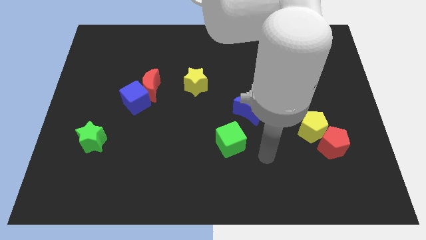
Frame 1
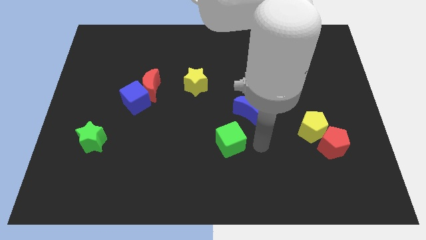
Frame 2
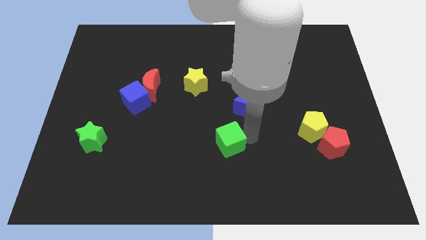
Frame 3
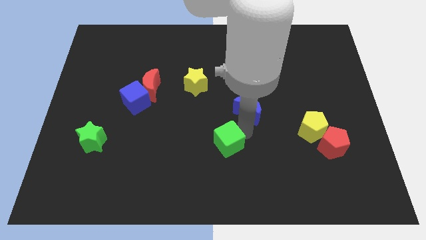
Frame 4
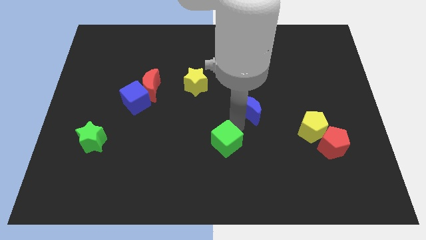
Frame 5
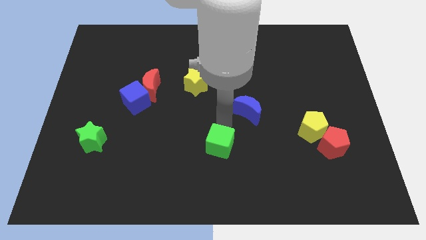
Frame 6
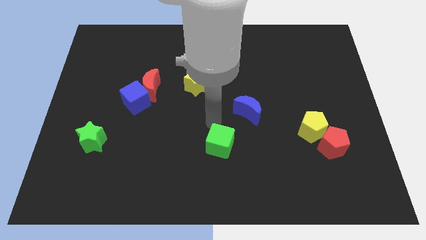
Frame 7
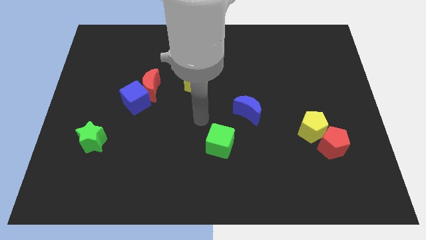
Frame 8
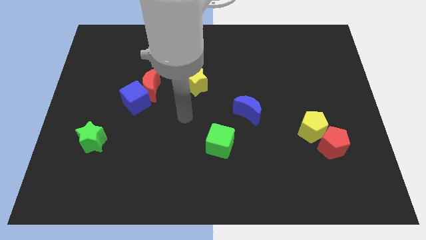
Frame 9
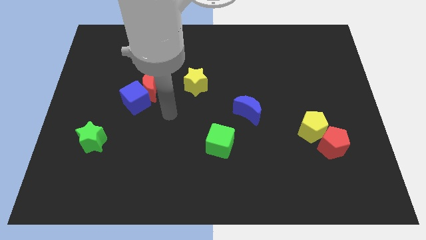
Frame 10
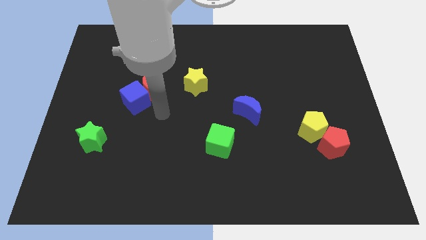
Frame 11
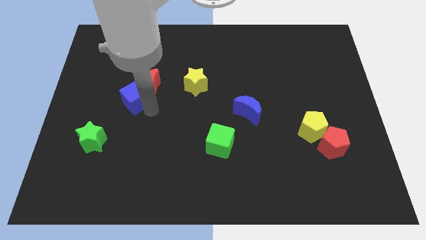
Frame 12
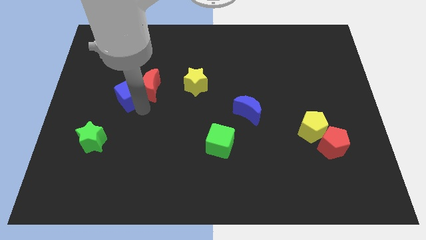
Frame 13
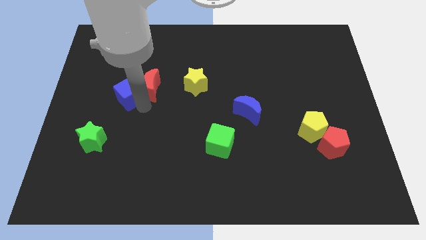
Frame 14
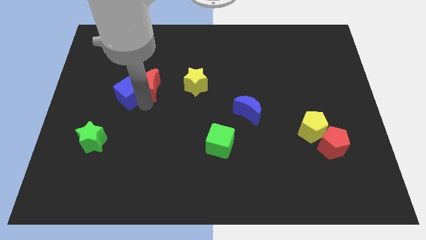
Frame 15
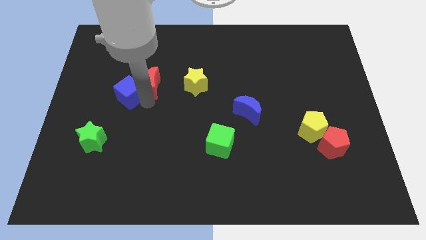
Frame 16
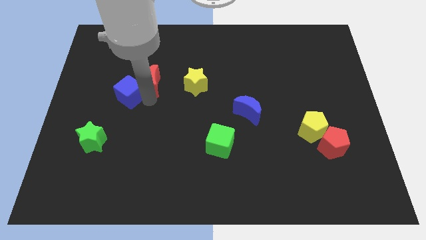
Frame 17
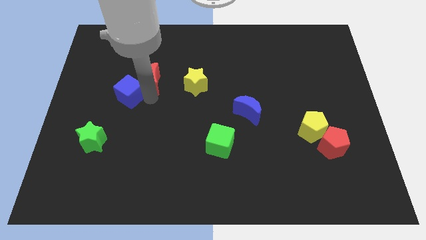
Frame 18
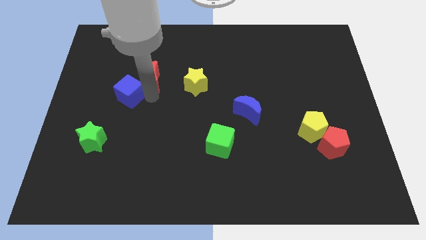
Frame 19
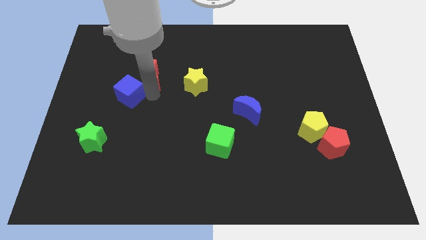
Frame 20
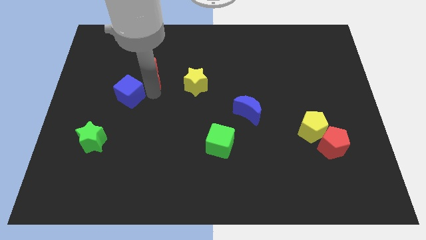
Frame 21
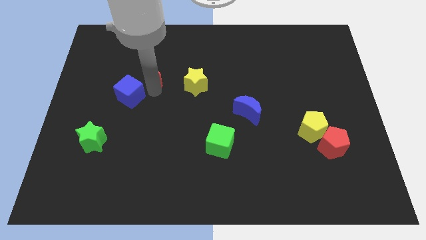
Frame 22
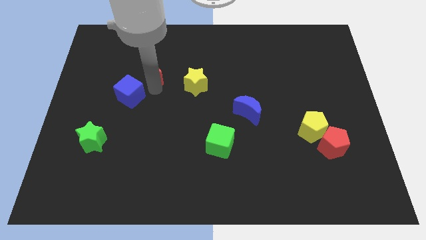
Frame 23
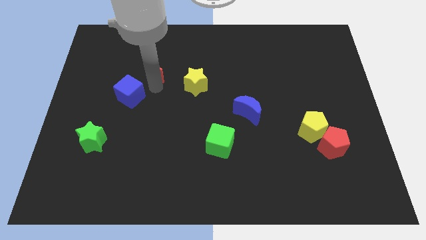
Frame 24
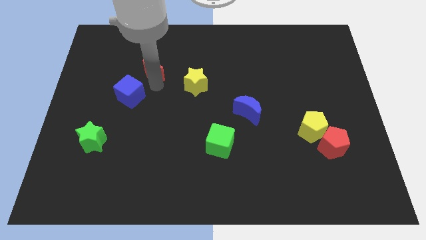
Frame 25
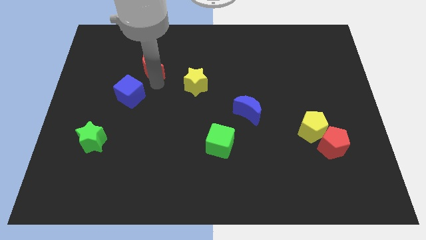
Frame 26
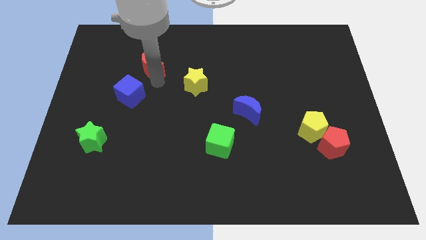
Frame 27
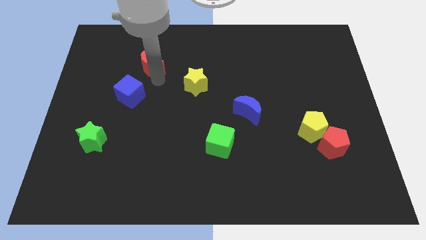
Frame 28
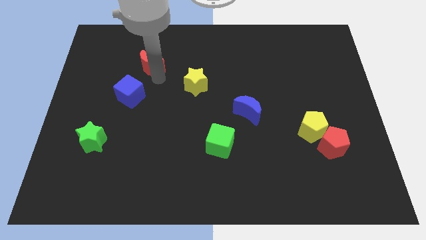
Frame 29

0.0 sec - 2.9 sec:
move the red moon away from the blue cube

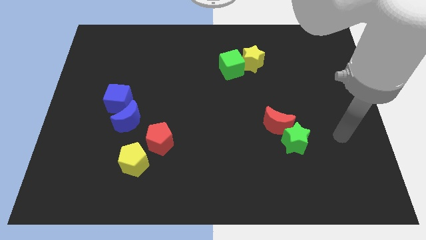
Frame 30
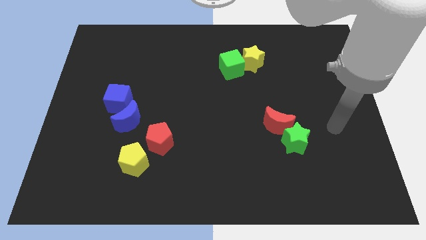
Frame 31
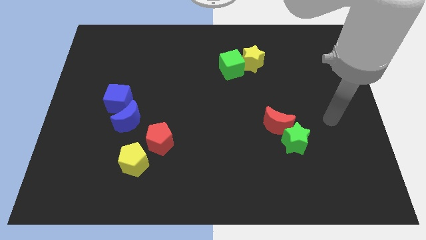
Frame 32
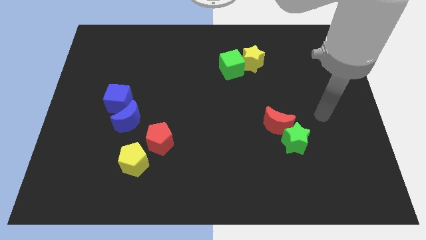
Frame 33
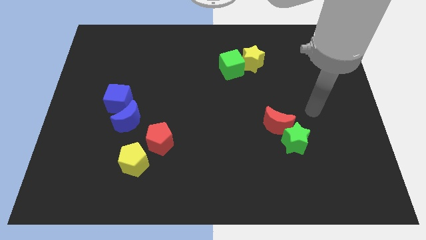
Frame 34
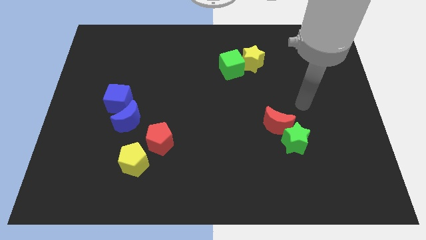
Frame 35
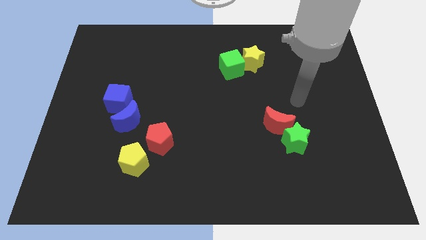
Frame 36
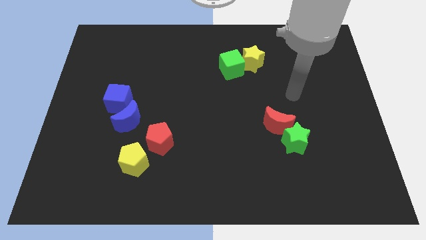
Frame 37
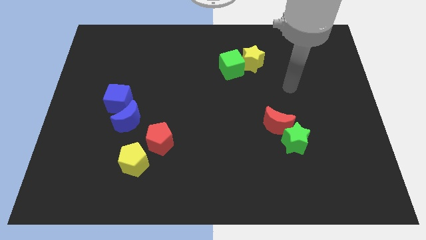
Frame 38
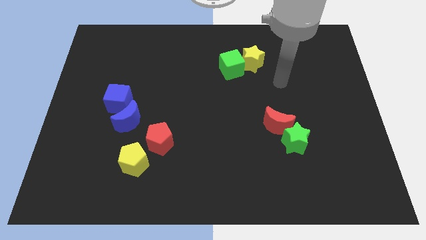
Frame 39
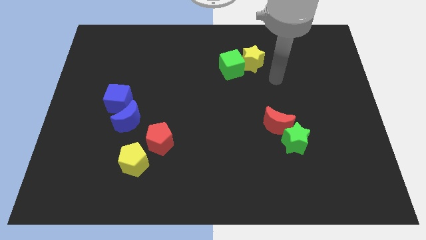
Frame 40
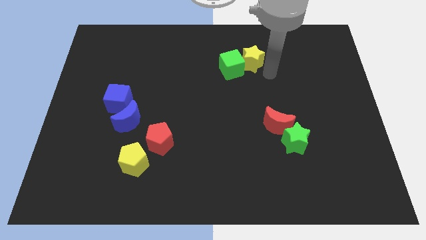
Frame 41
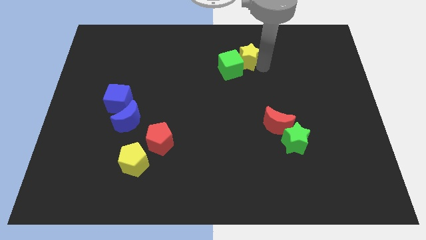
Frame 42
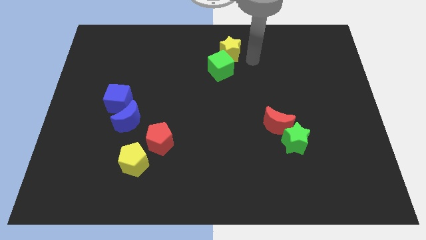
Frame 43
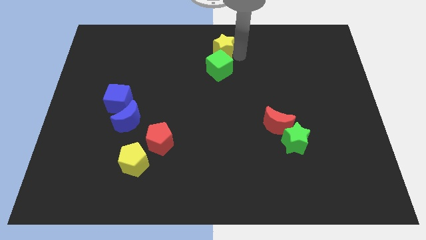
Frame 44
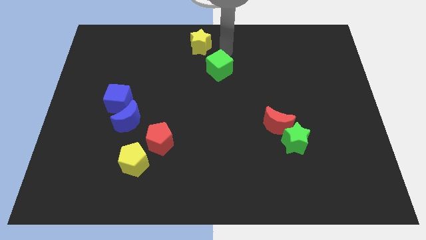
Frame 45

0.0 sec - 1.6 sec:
separate the green cube from the yellow star

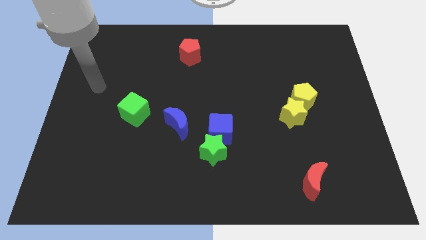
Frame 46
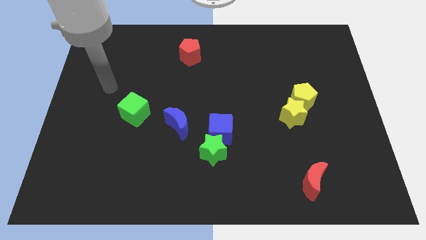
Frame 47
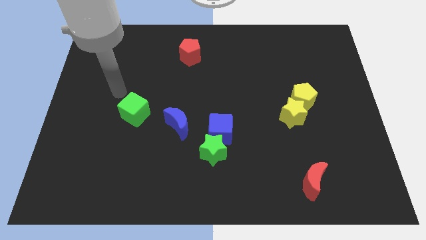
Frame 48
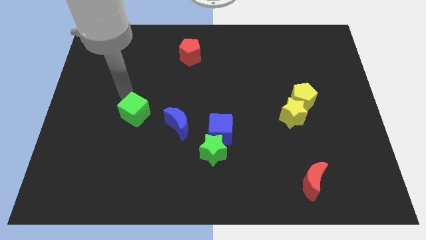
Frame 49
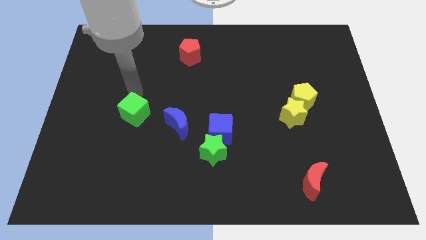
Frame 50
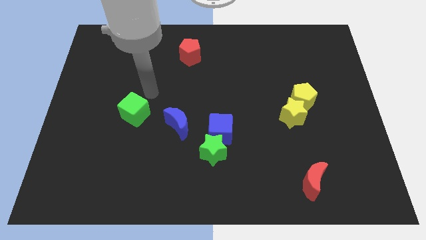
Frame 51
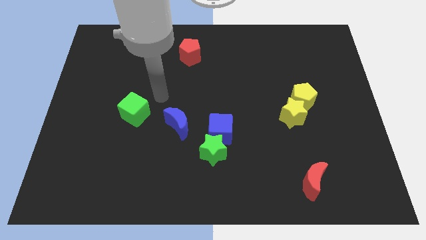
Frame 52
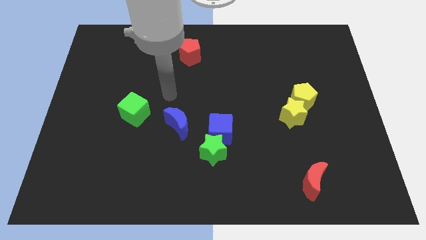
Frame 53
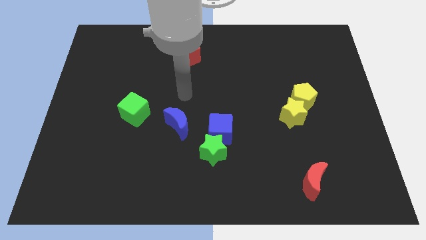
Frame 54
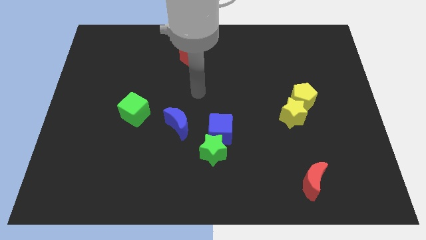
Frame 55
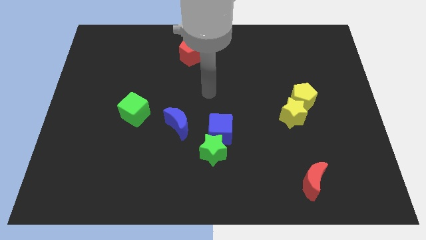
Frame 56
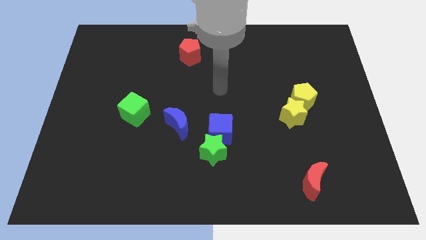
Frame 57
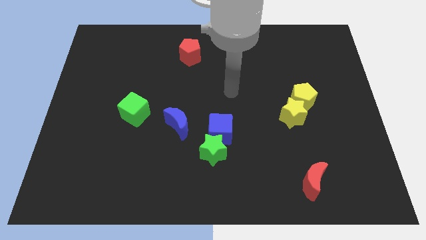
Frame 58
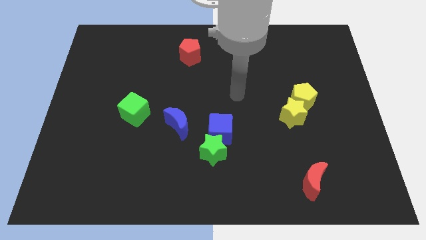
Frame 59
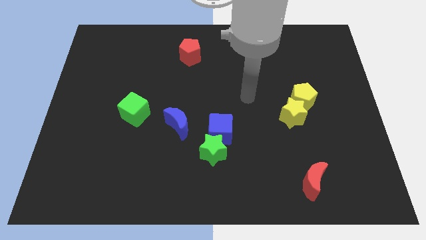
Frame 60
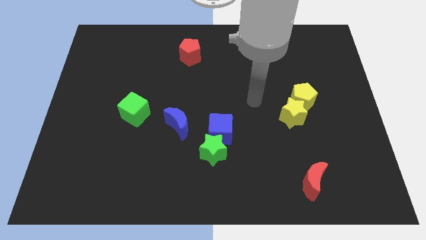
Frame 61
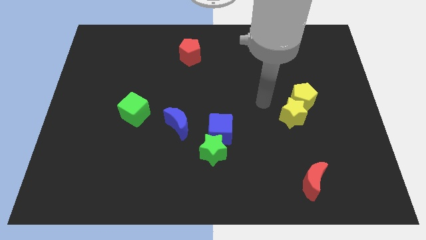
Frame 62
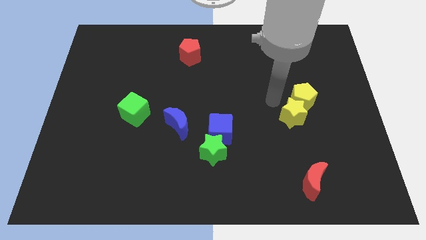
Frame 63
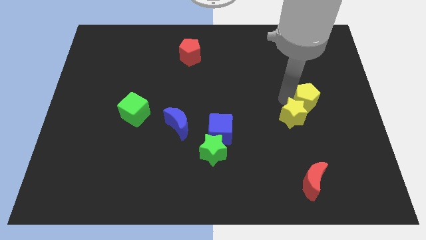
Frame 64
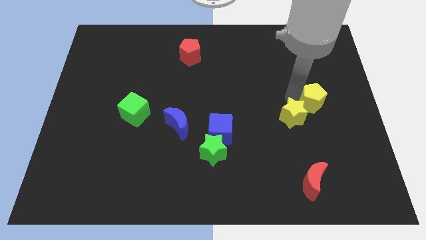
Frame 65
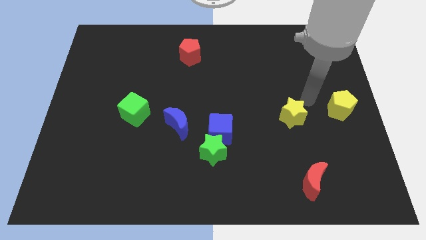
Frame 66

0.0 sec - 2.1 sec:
pull the yellow star apart from the yellow pentagon

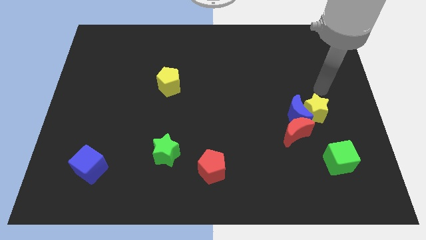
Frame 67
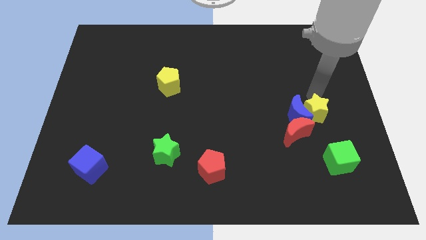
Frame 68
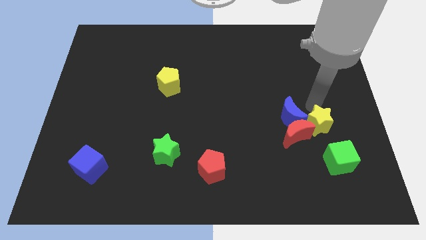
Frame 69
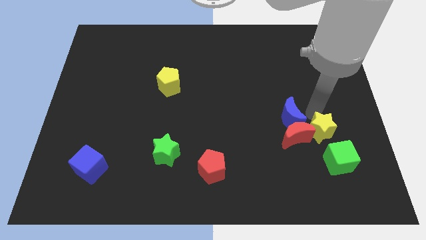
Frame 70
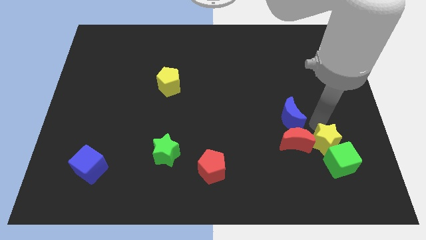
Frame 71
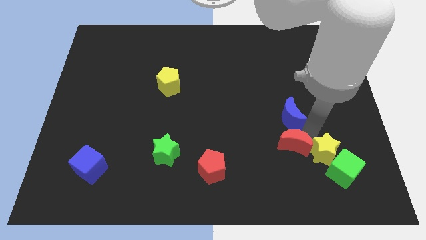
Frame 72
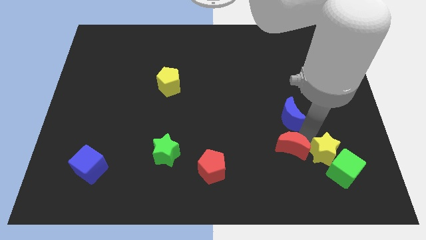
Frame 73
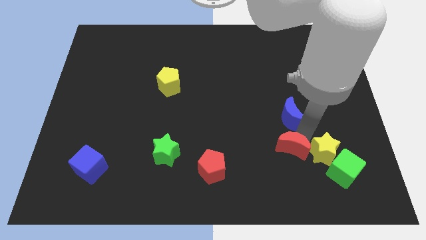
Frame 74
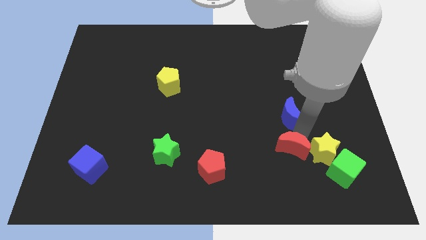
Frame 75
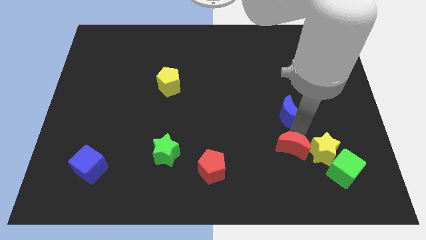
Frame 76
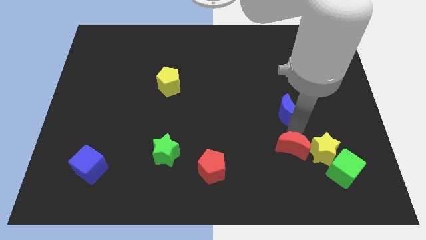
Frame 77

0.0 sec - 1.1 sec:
move the blue moon away from the yellow star and red moon

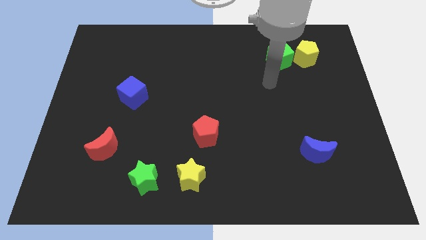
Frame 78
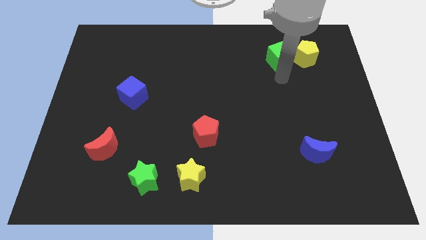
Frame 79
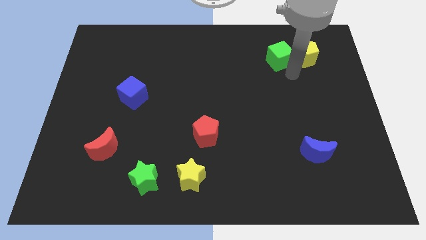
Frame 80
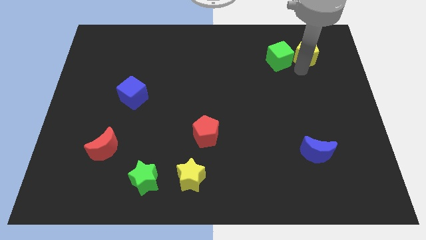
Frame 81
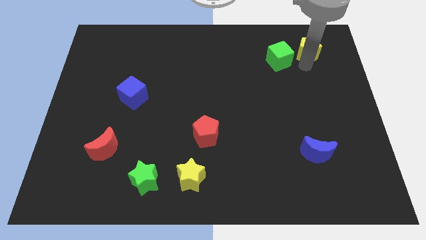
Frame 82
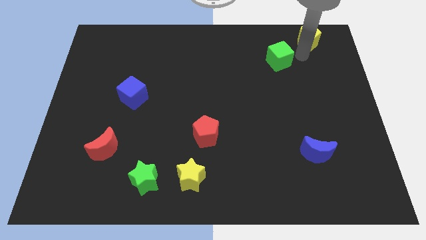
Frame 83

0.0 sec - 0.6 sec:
move the green cube away from the yellow pentagon

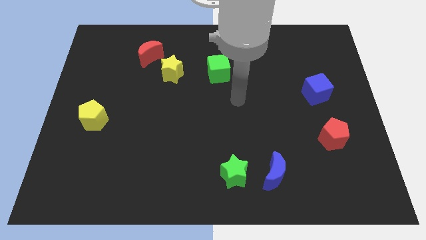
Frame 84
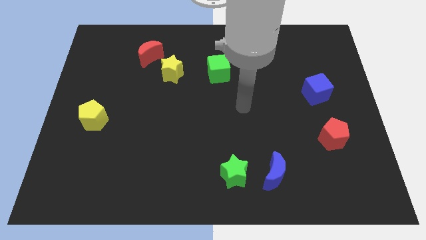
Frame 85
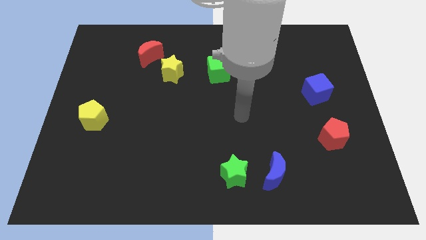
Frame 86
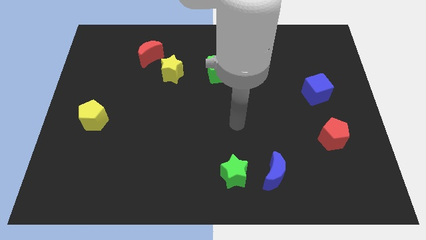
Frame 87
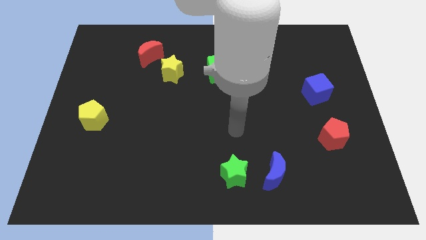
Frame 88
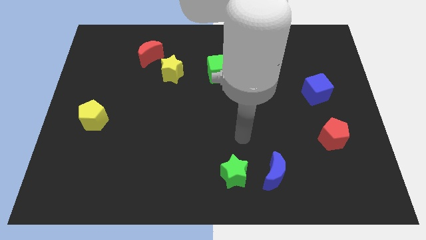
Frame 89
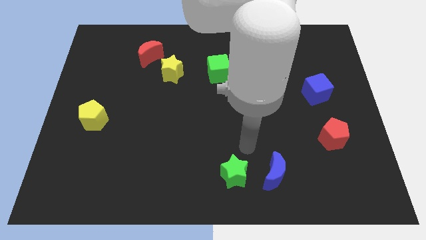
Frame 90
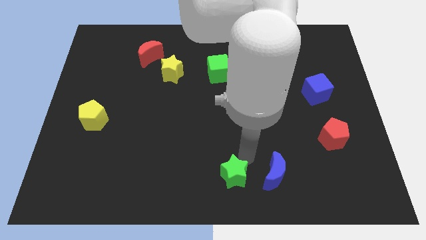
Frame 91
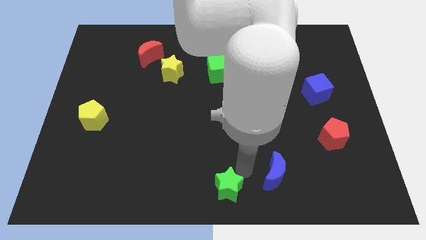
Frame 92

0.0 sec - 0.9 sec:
move the blue moon away from the green star

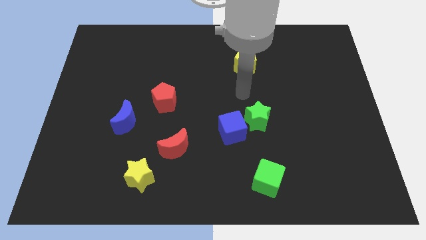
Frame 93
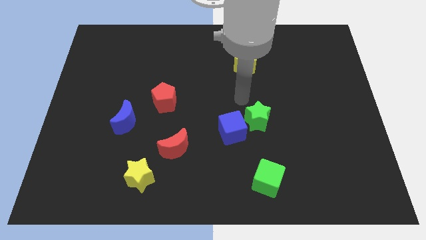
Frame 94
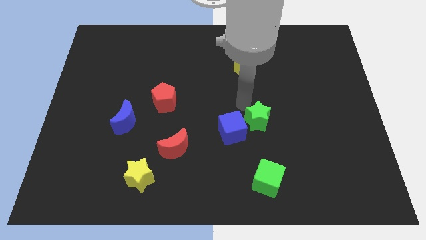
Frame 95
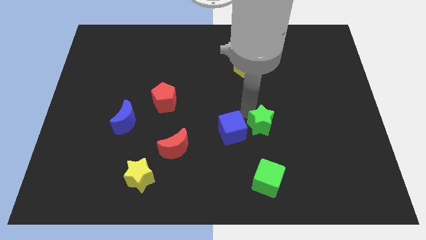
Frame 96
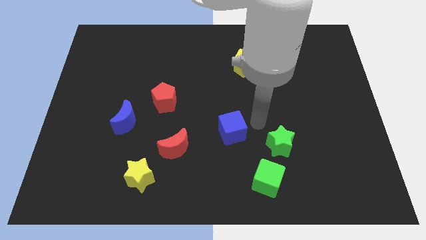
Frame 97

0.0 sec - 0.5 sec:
pull the blue cube apart from the green star
